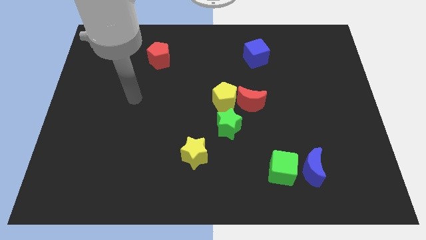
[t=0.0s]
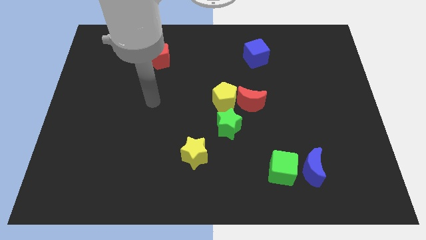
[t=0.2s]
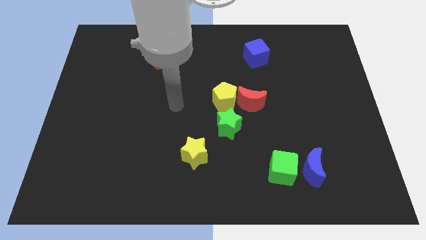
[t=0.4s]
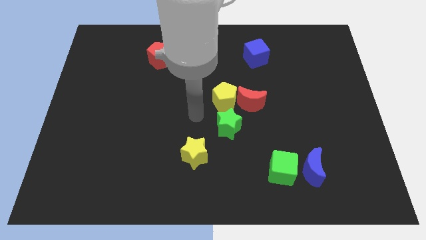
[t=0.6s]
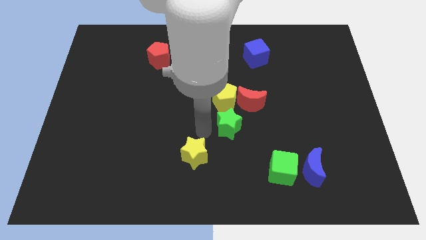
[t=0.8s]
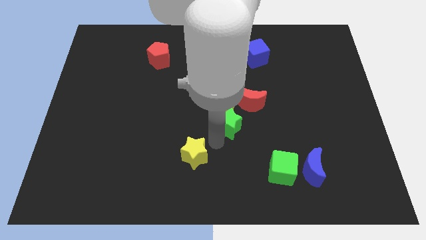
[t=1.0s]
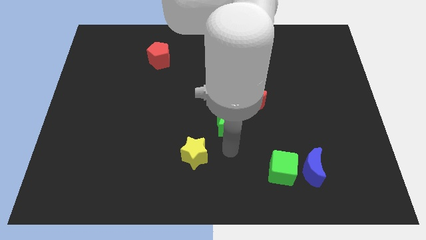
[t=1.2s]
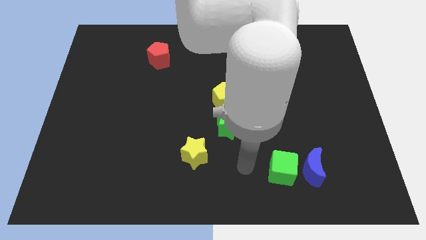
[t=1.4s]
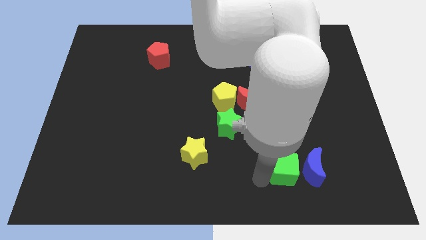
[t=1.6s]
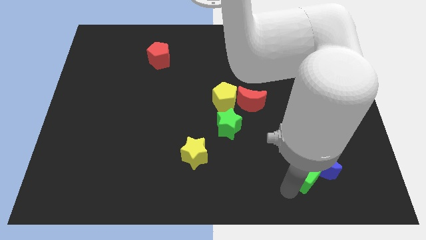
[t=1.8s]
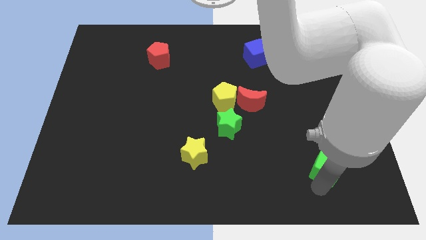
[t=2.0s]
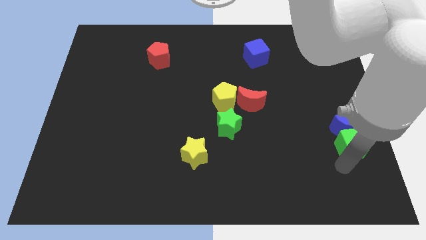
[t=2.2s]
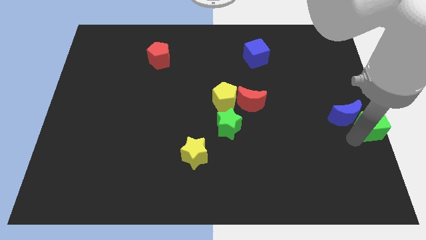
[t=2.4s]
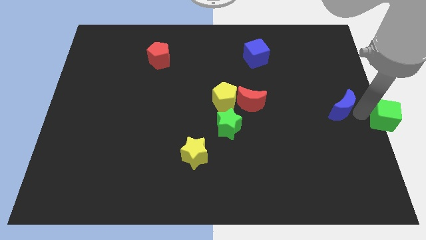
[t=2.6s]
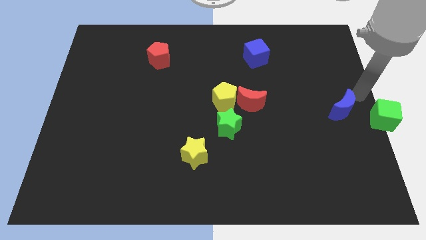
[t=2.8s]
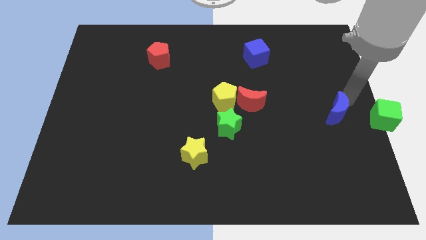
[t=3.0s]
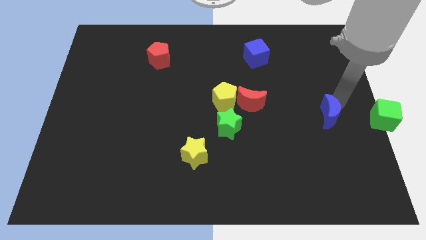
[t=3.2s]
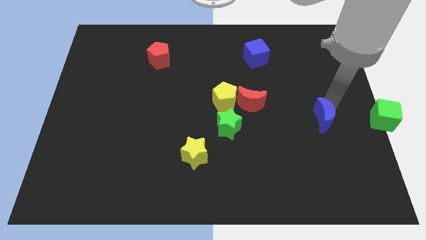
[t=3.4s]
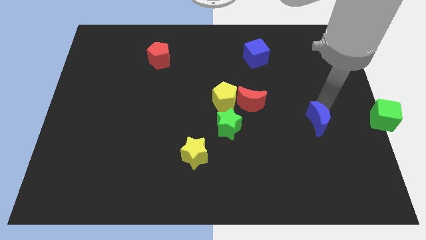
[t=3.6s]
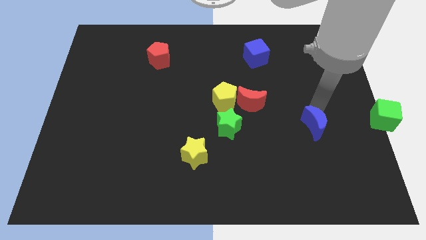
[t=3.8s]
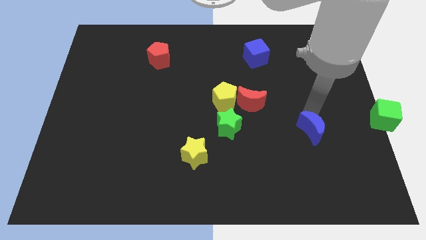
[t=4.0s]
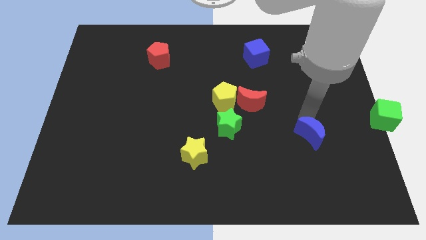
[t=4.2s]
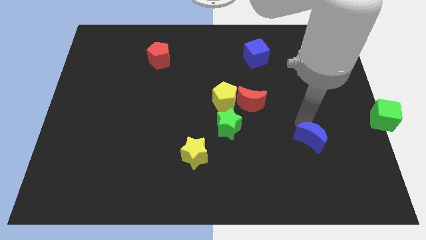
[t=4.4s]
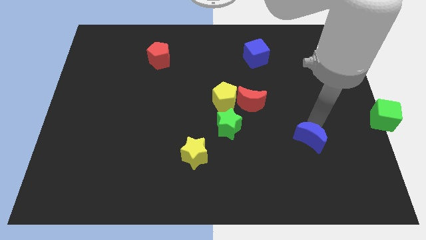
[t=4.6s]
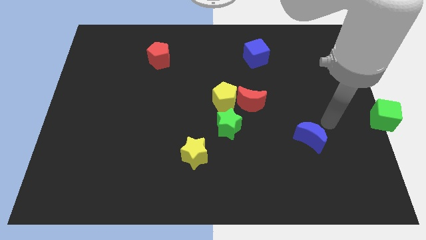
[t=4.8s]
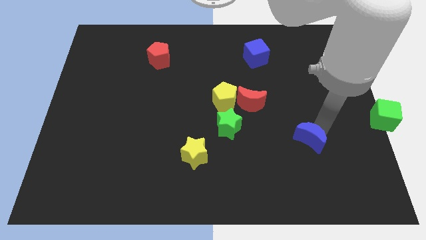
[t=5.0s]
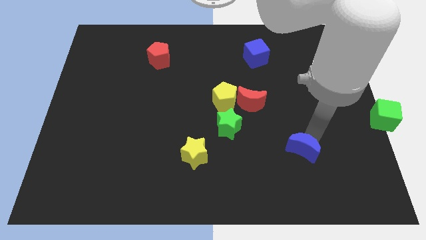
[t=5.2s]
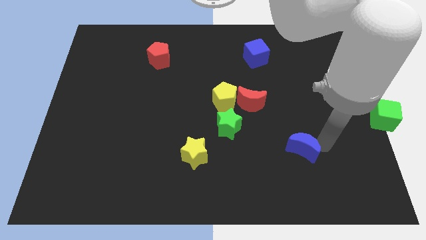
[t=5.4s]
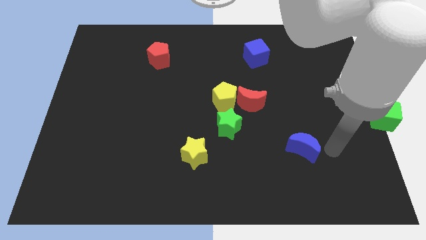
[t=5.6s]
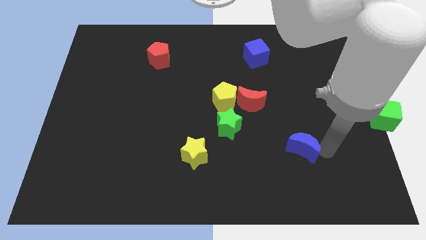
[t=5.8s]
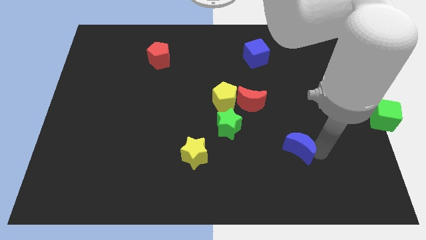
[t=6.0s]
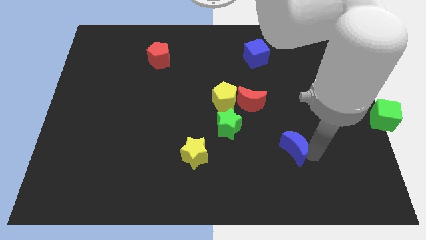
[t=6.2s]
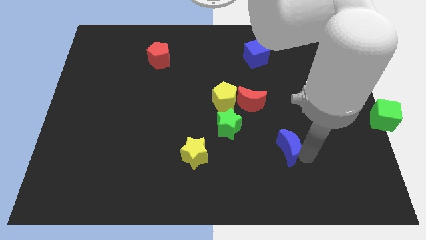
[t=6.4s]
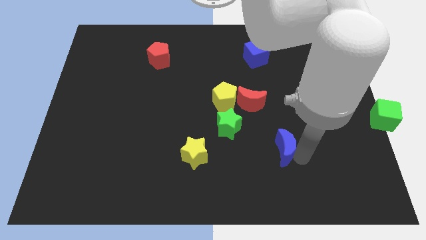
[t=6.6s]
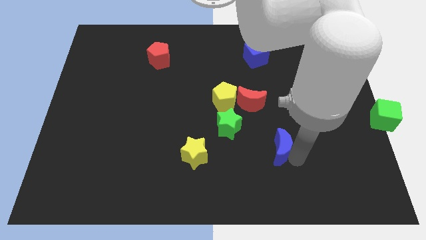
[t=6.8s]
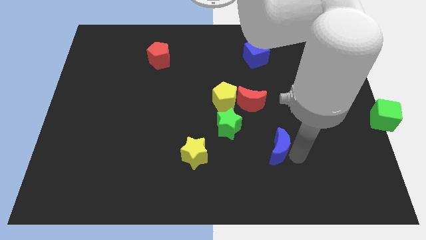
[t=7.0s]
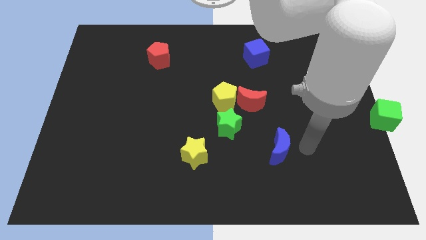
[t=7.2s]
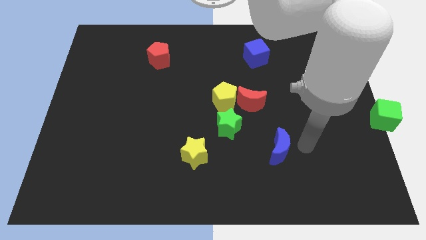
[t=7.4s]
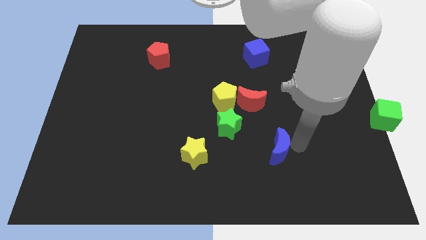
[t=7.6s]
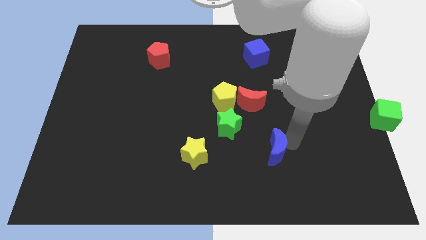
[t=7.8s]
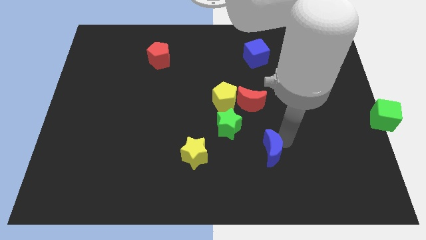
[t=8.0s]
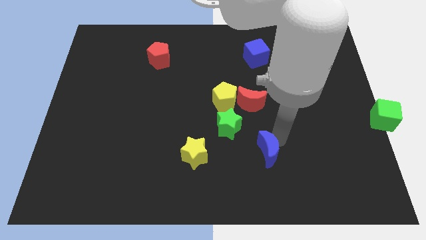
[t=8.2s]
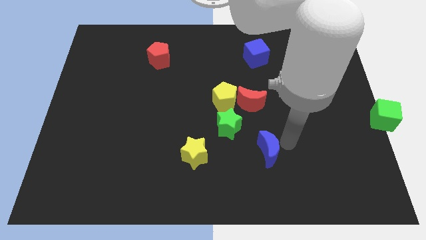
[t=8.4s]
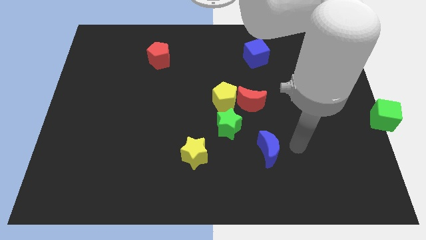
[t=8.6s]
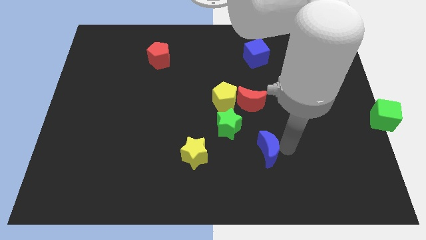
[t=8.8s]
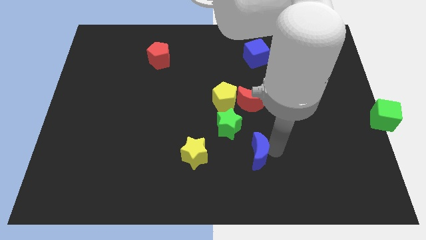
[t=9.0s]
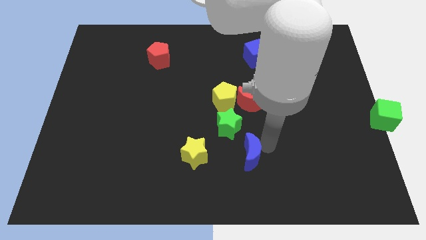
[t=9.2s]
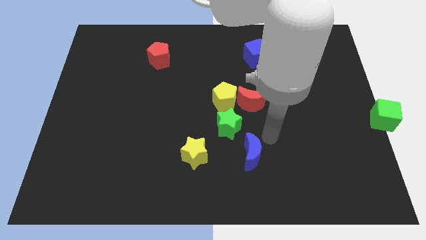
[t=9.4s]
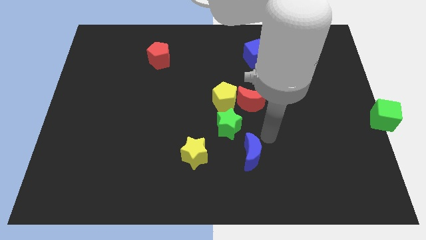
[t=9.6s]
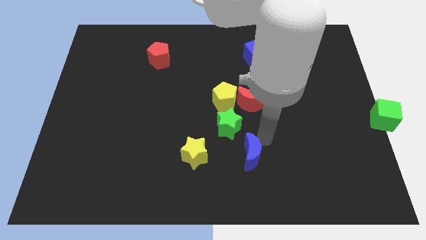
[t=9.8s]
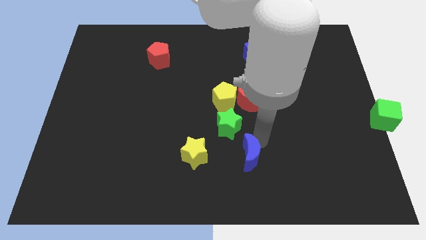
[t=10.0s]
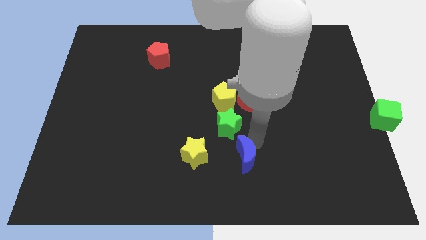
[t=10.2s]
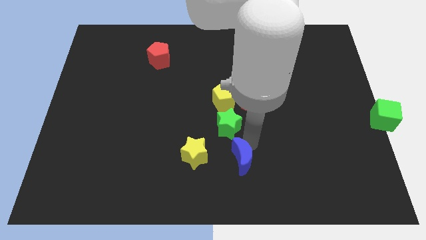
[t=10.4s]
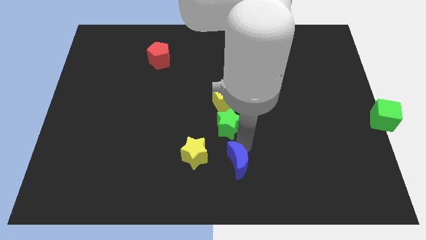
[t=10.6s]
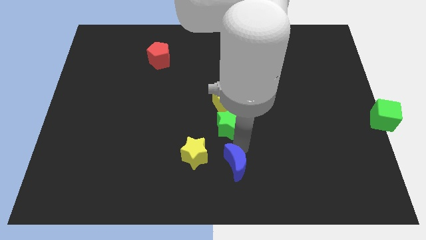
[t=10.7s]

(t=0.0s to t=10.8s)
move the blue moon to the bottom right side of the yellow star

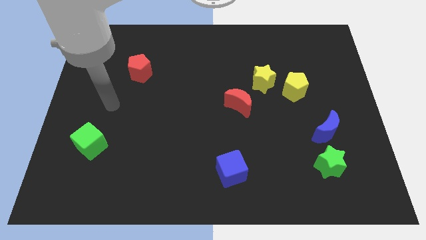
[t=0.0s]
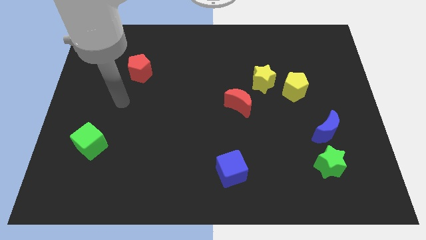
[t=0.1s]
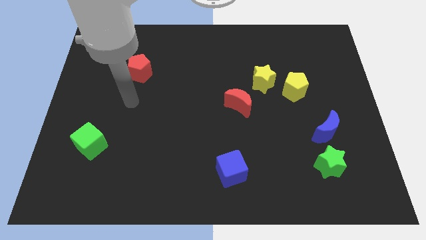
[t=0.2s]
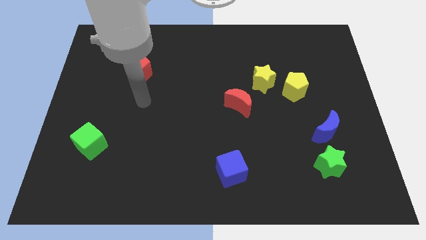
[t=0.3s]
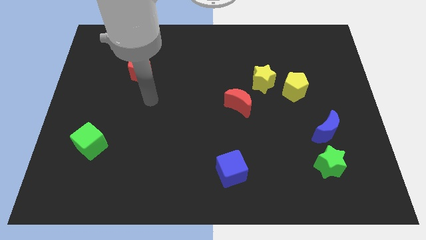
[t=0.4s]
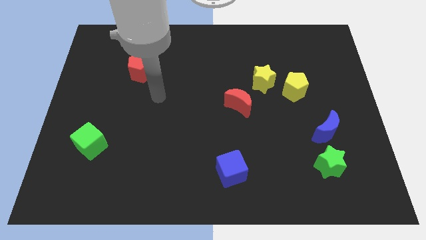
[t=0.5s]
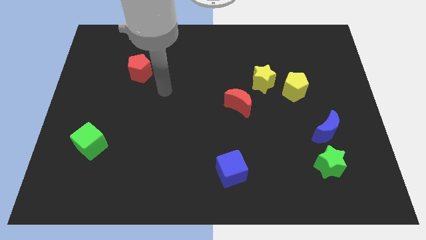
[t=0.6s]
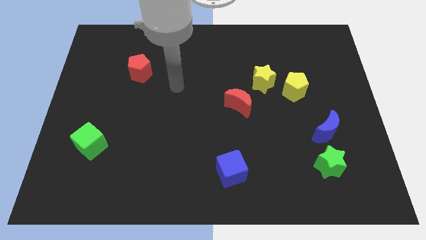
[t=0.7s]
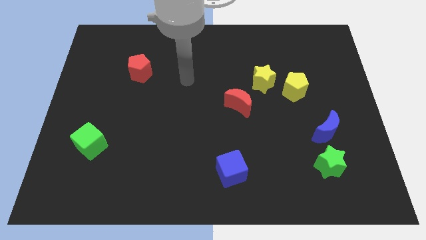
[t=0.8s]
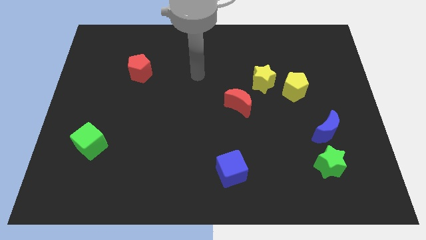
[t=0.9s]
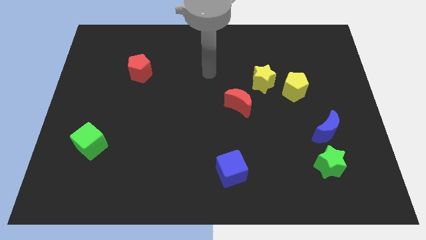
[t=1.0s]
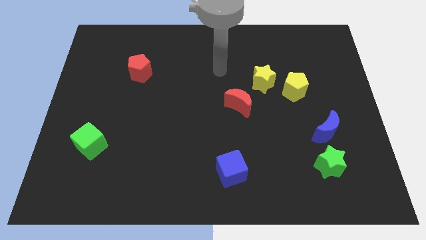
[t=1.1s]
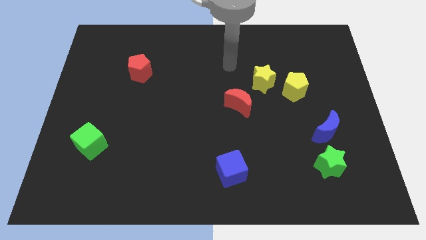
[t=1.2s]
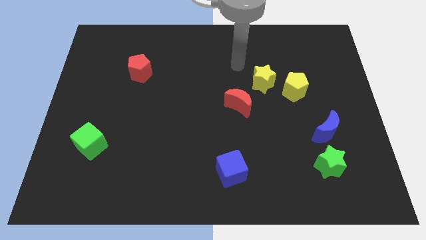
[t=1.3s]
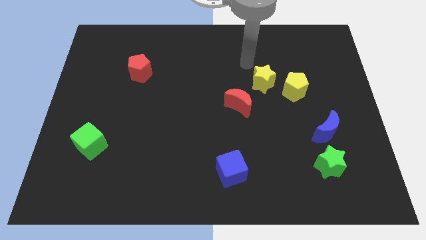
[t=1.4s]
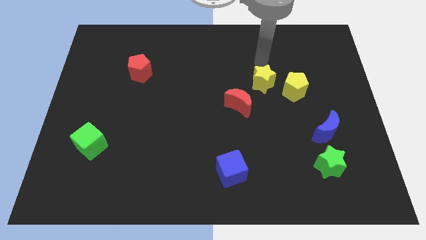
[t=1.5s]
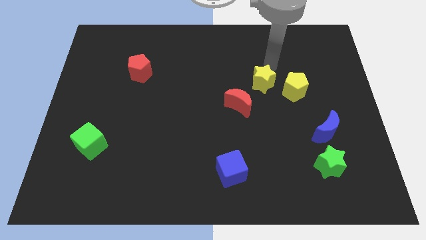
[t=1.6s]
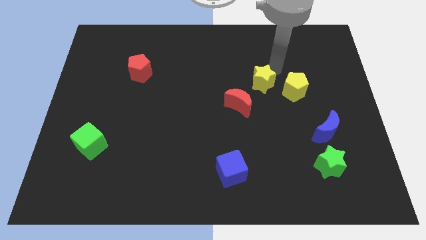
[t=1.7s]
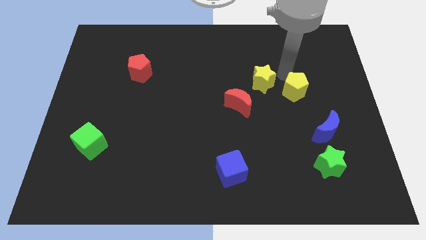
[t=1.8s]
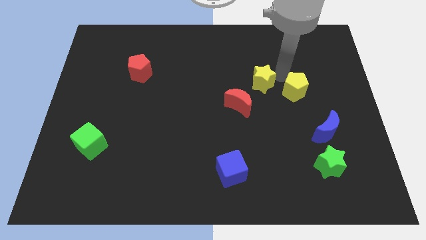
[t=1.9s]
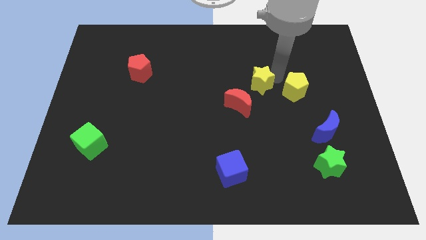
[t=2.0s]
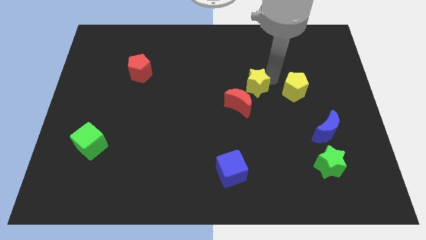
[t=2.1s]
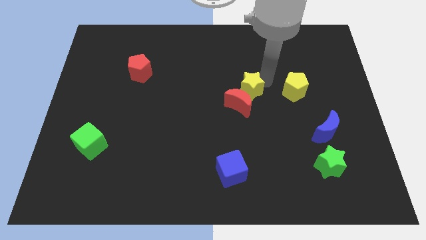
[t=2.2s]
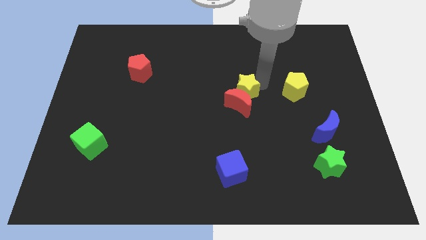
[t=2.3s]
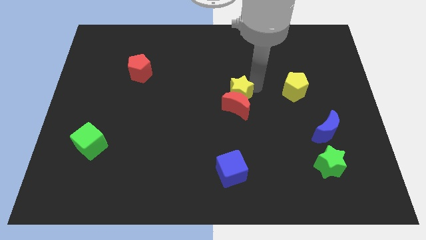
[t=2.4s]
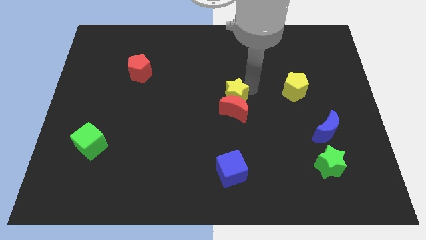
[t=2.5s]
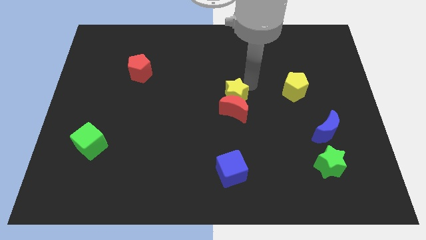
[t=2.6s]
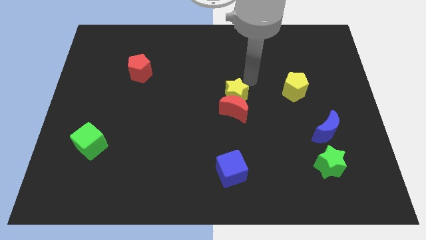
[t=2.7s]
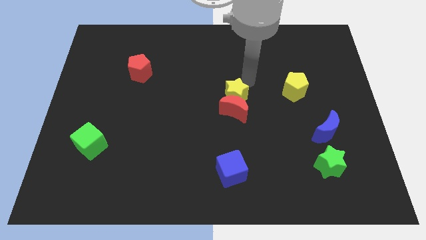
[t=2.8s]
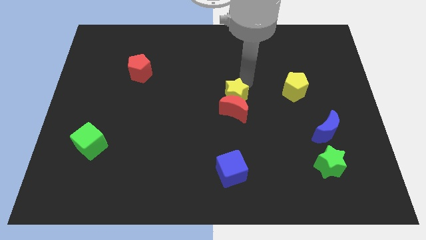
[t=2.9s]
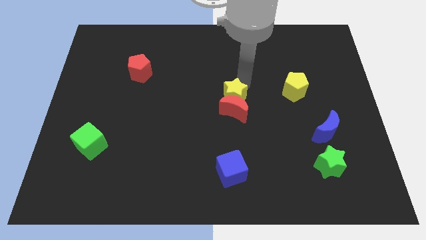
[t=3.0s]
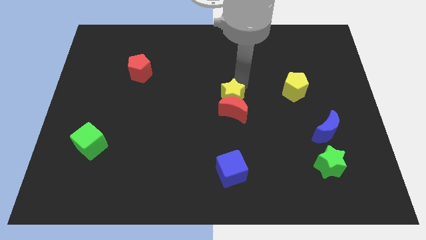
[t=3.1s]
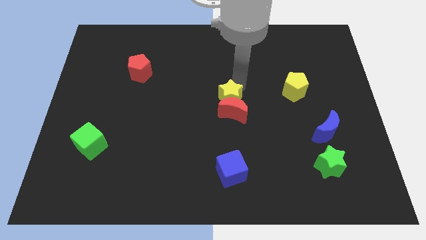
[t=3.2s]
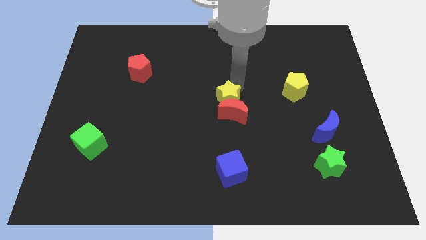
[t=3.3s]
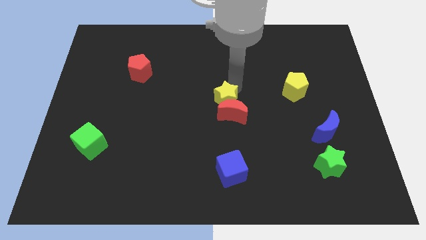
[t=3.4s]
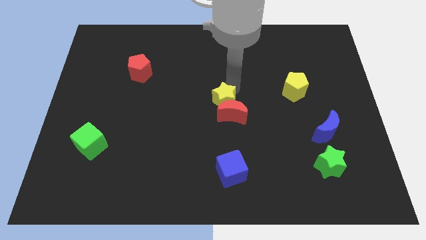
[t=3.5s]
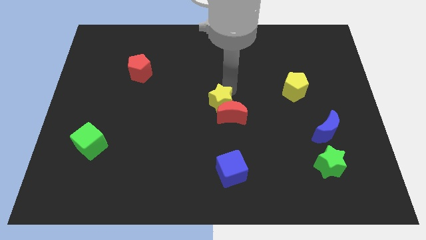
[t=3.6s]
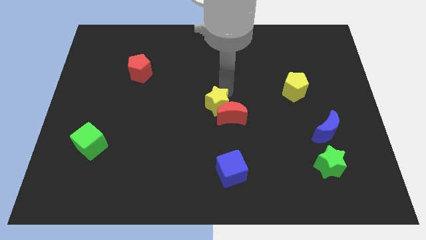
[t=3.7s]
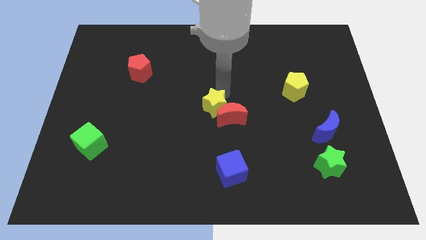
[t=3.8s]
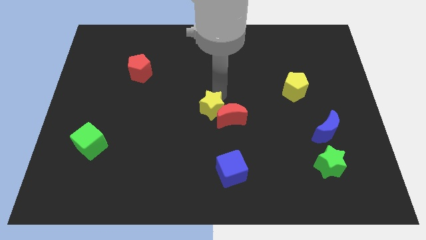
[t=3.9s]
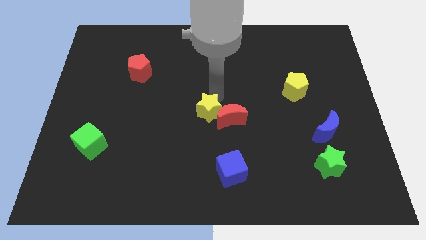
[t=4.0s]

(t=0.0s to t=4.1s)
slide the yellow star to the bottom left side of the red moon
